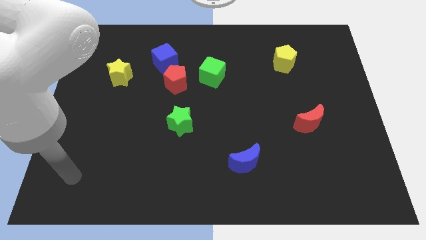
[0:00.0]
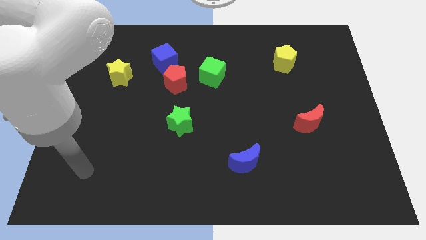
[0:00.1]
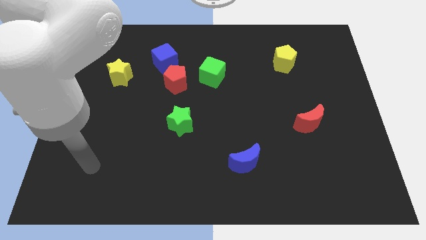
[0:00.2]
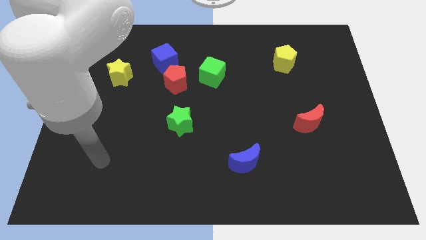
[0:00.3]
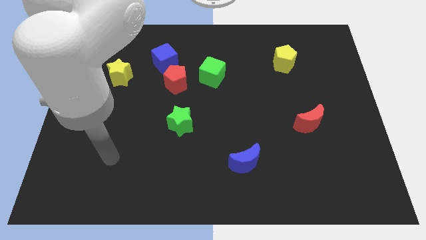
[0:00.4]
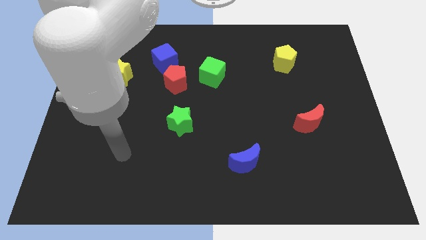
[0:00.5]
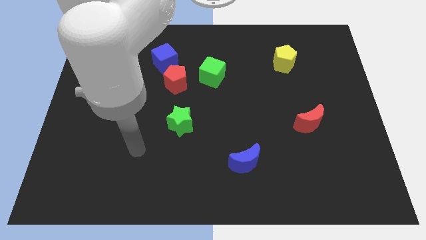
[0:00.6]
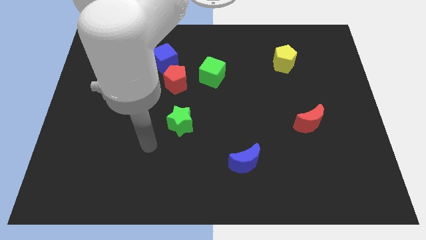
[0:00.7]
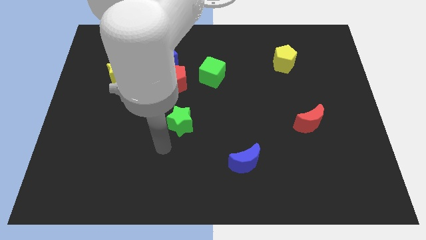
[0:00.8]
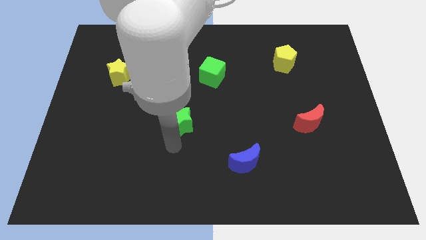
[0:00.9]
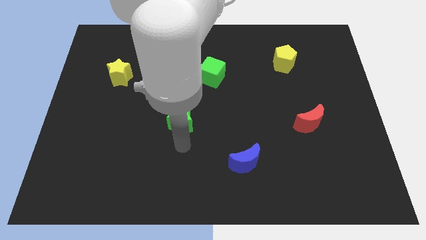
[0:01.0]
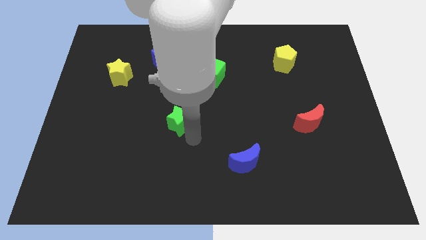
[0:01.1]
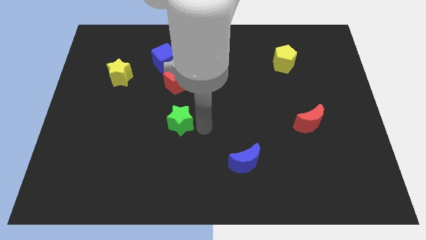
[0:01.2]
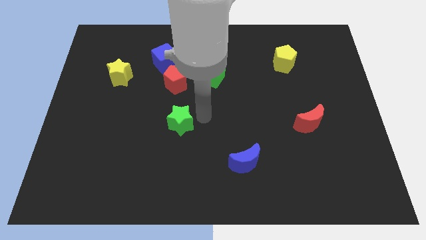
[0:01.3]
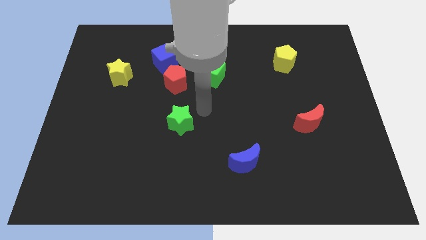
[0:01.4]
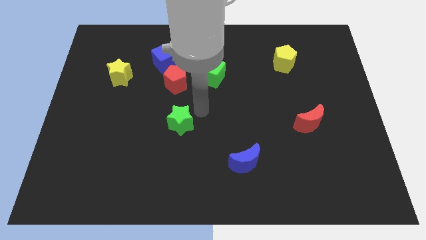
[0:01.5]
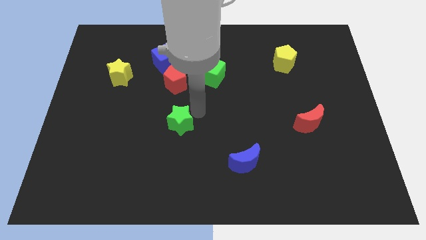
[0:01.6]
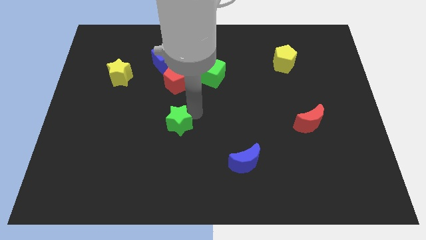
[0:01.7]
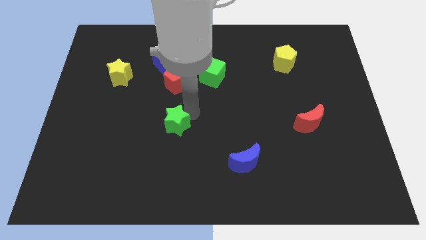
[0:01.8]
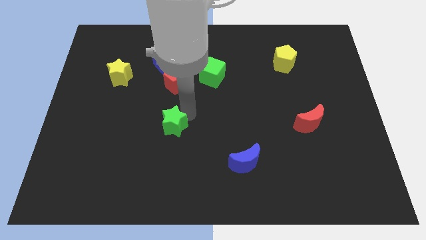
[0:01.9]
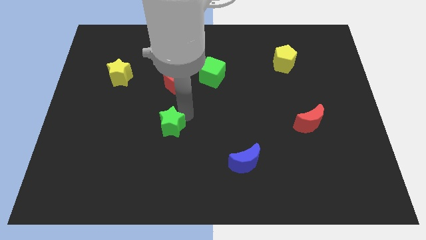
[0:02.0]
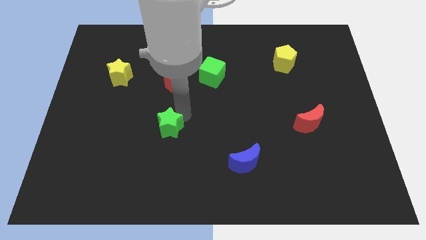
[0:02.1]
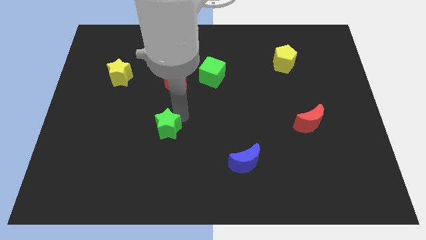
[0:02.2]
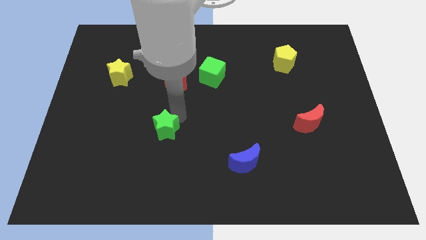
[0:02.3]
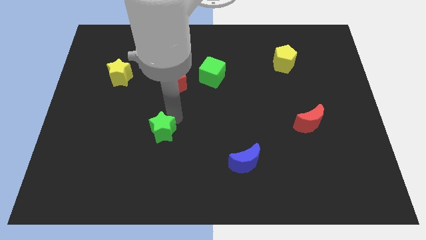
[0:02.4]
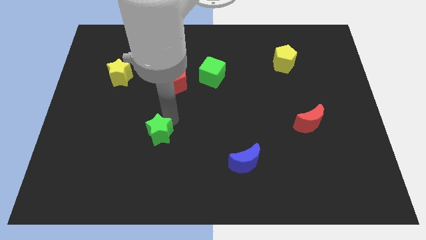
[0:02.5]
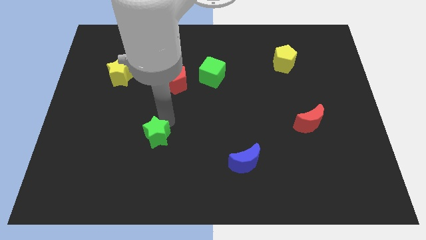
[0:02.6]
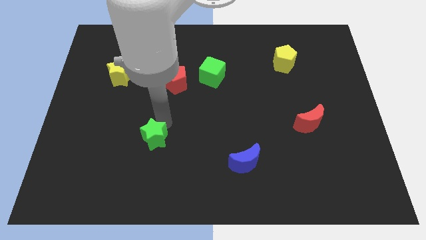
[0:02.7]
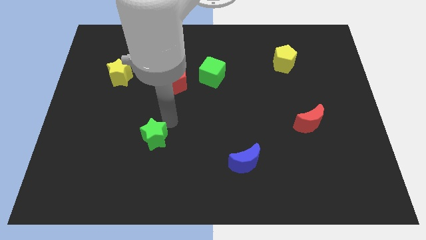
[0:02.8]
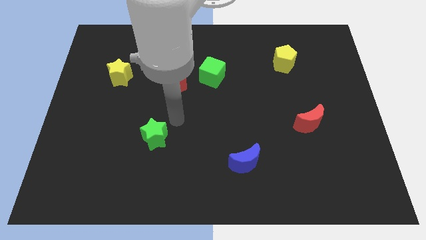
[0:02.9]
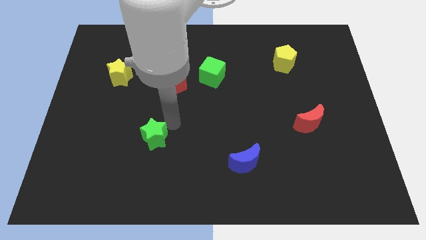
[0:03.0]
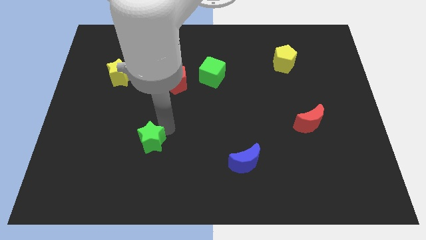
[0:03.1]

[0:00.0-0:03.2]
slide the green star down and left diagonally slightly

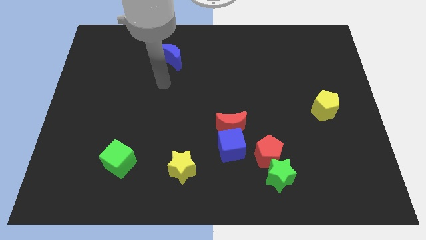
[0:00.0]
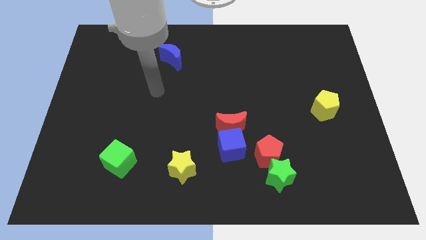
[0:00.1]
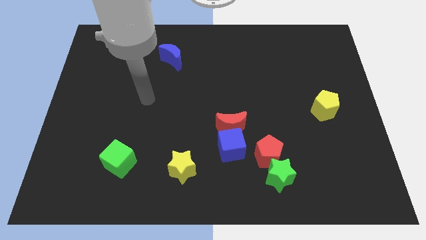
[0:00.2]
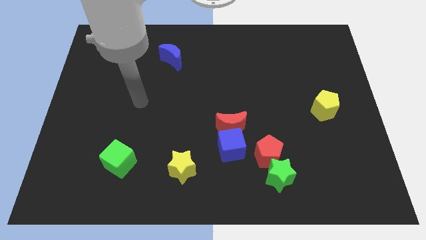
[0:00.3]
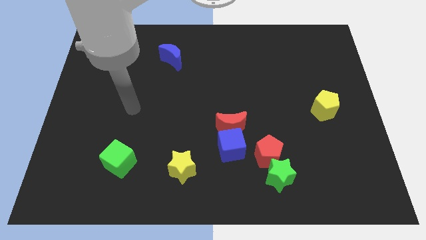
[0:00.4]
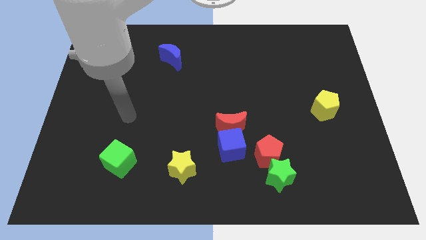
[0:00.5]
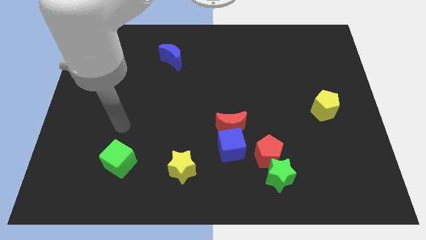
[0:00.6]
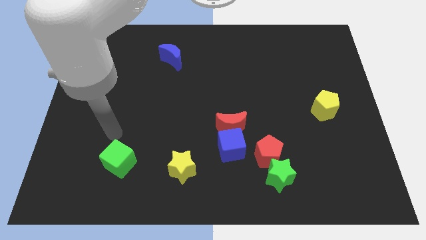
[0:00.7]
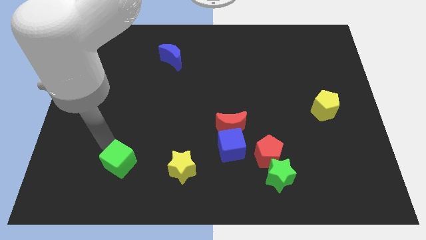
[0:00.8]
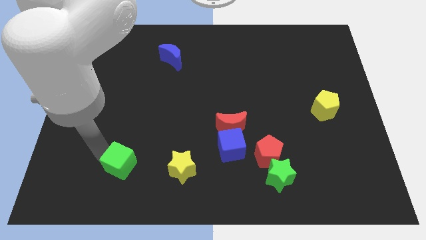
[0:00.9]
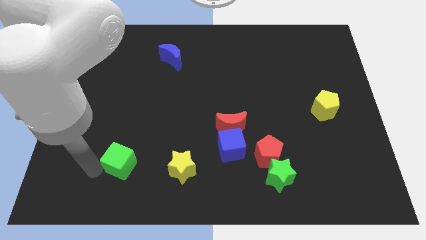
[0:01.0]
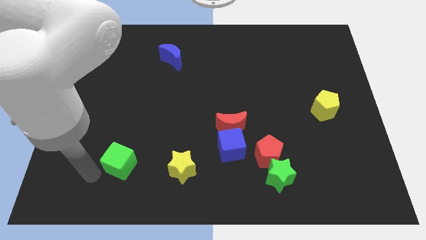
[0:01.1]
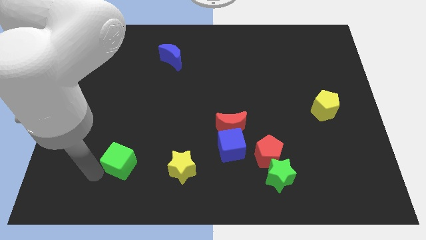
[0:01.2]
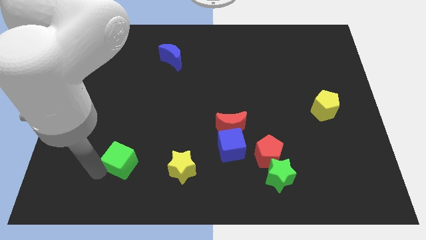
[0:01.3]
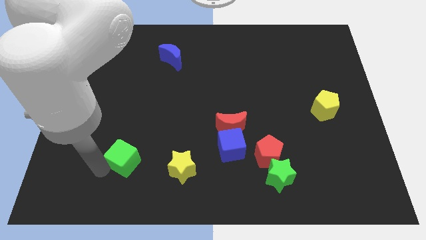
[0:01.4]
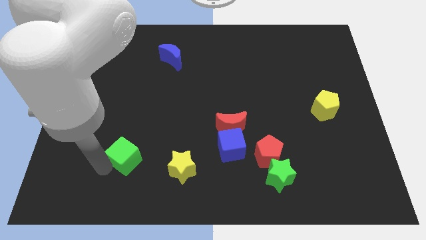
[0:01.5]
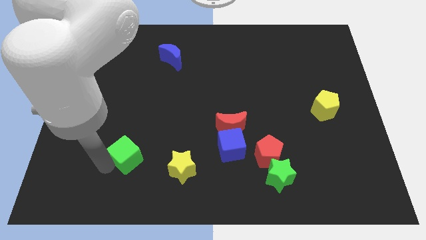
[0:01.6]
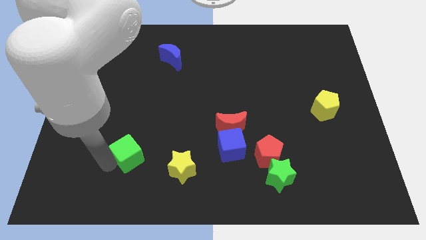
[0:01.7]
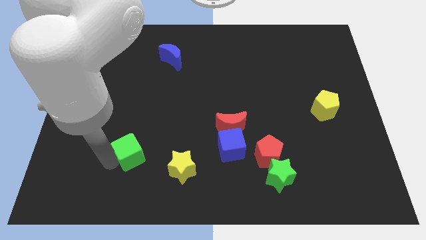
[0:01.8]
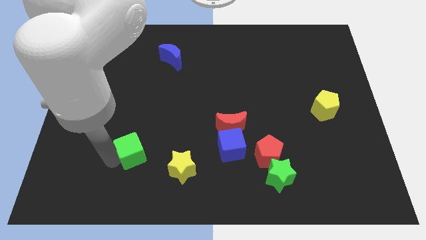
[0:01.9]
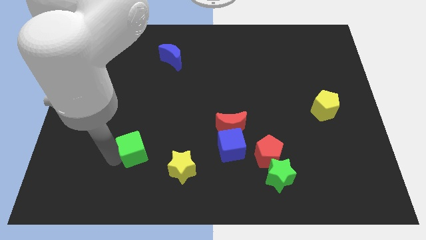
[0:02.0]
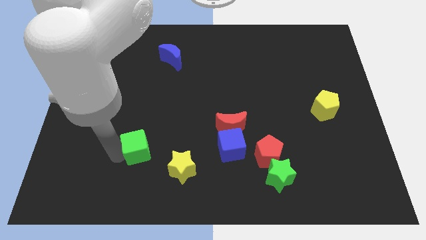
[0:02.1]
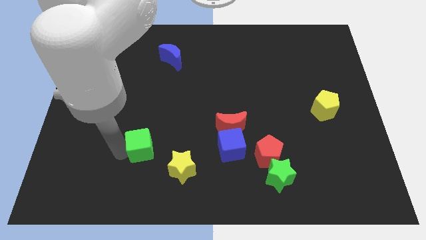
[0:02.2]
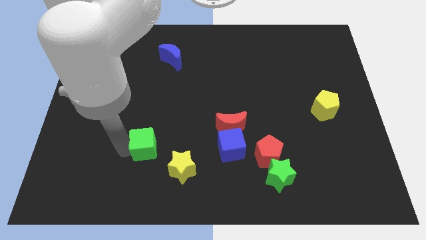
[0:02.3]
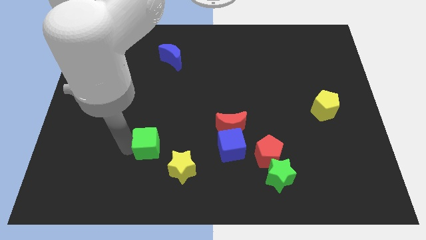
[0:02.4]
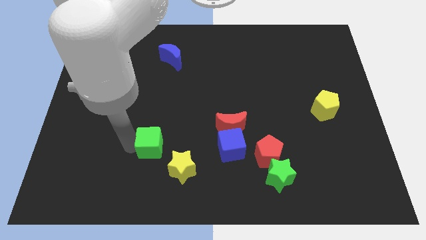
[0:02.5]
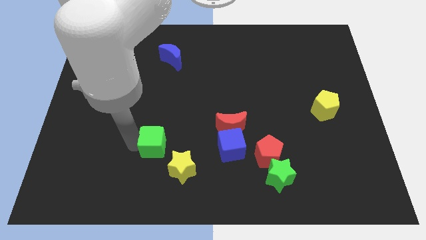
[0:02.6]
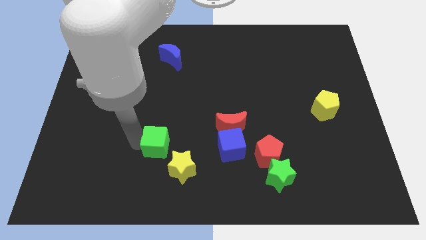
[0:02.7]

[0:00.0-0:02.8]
move the green cube a little bit to the right

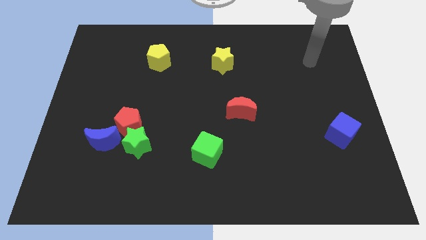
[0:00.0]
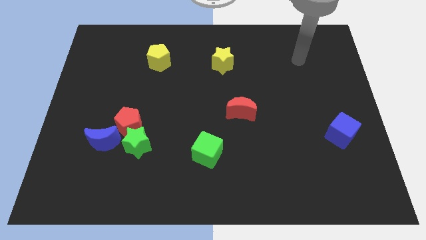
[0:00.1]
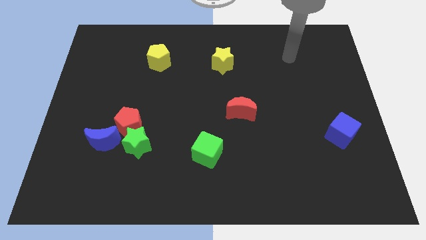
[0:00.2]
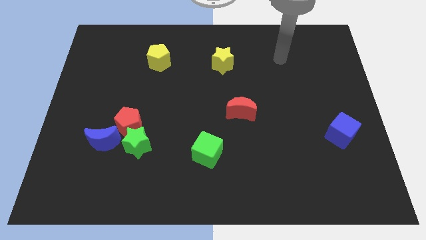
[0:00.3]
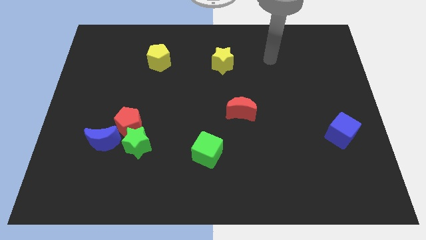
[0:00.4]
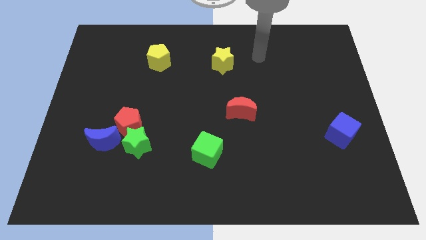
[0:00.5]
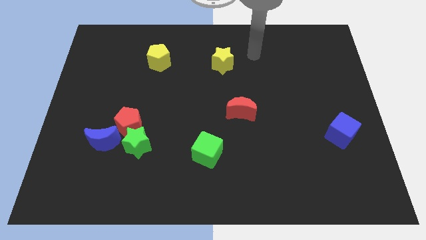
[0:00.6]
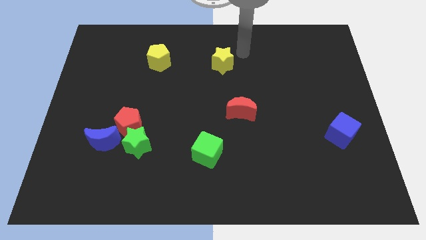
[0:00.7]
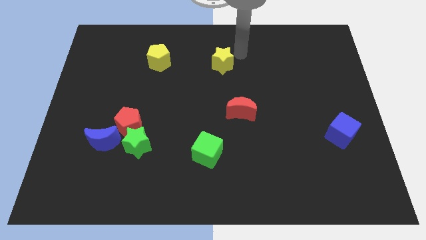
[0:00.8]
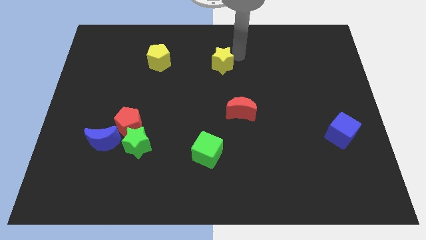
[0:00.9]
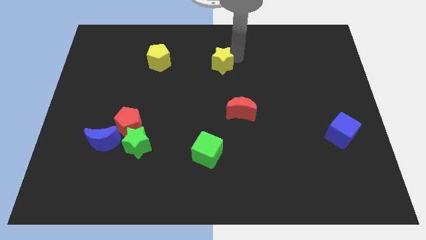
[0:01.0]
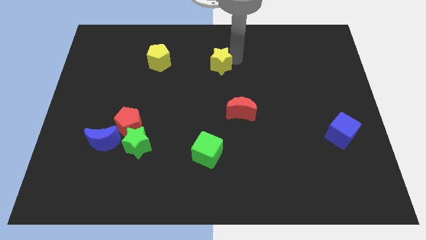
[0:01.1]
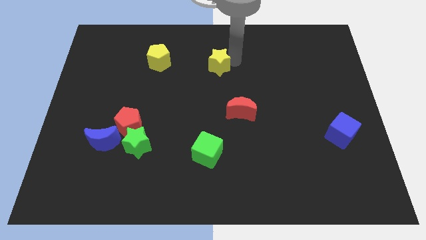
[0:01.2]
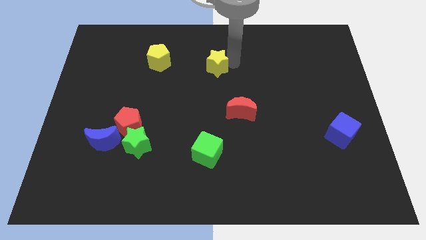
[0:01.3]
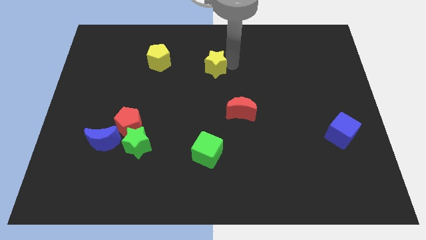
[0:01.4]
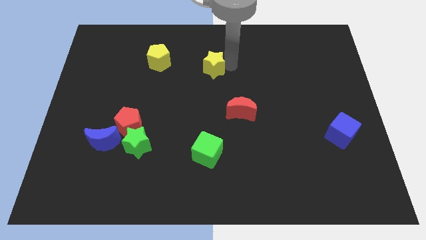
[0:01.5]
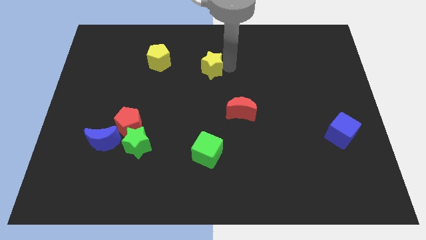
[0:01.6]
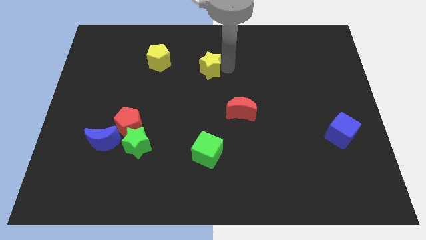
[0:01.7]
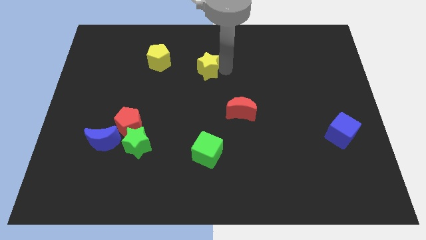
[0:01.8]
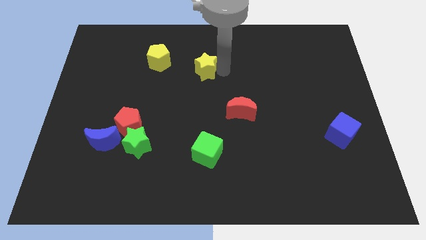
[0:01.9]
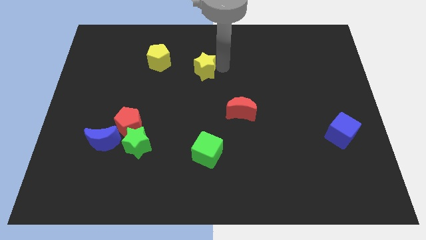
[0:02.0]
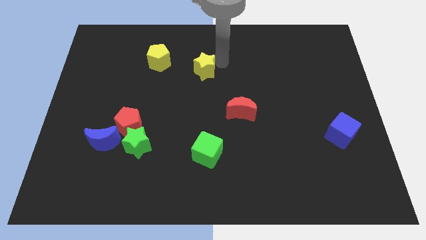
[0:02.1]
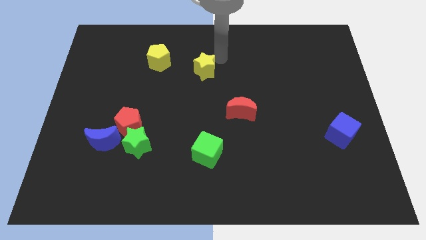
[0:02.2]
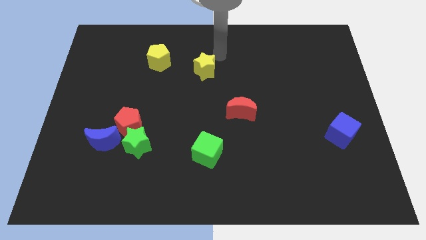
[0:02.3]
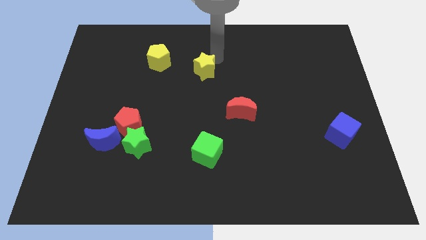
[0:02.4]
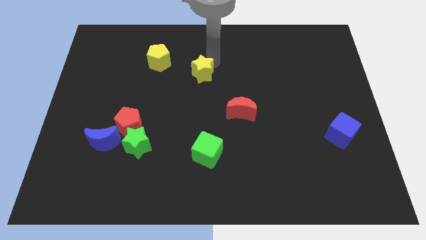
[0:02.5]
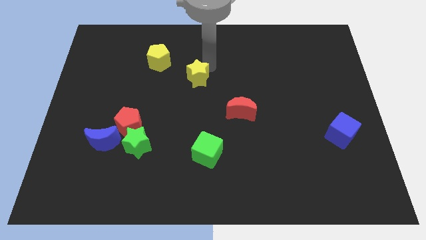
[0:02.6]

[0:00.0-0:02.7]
slide the yellow star a little bit down and to the left diagonally
